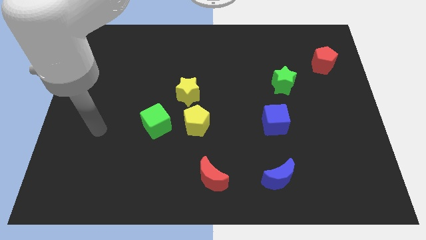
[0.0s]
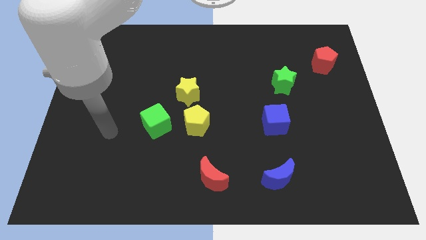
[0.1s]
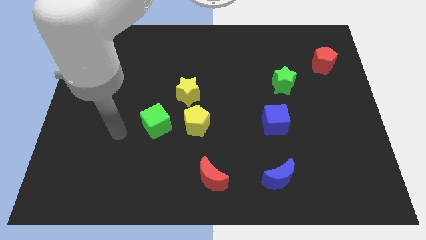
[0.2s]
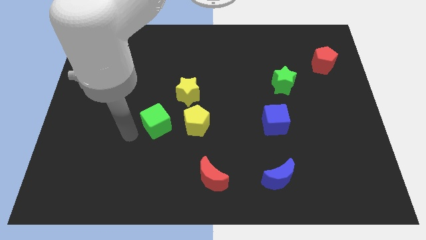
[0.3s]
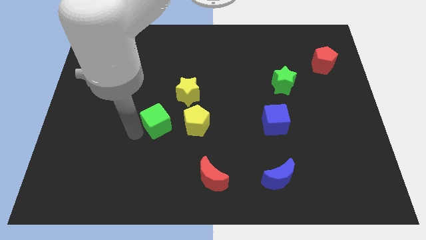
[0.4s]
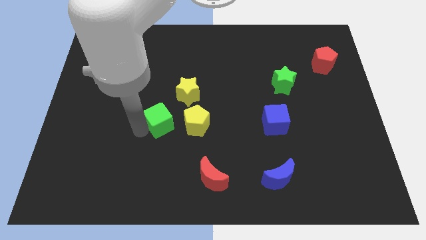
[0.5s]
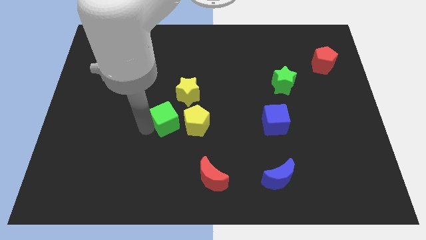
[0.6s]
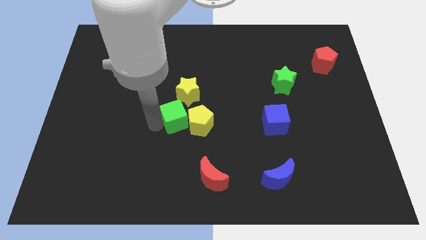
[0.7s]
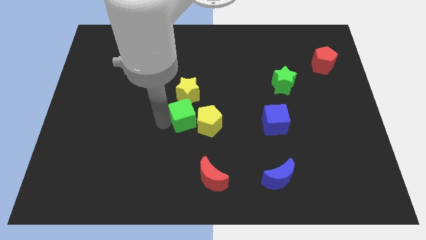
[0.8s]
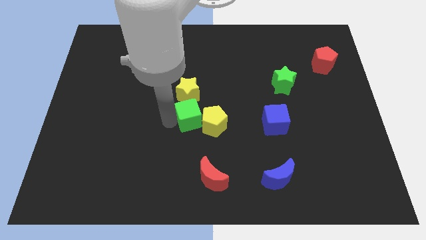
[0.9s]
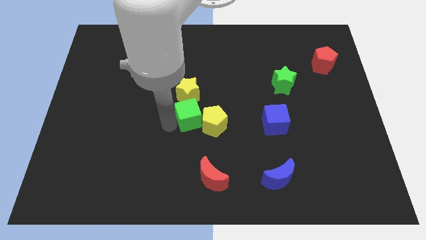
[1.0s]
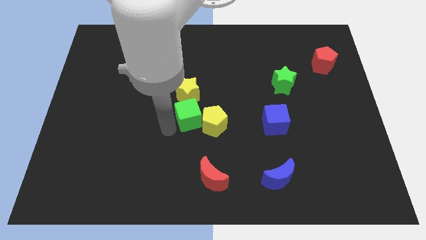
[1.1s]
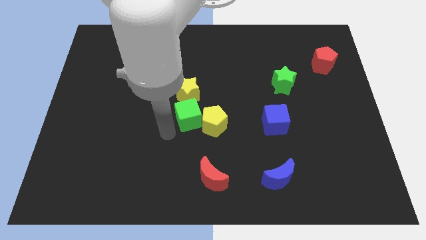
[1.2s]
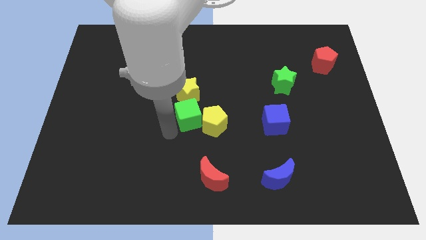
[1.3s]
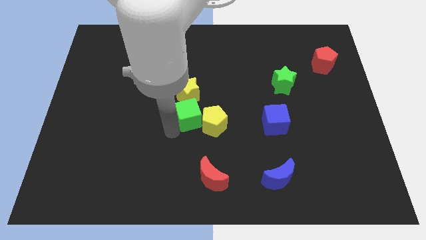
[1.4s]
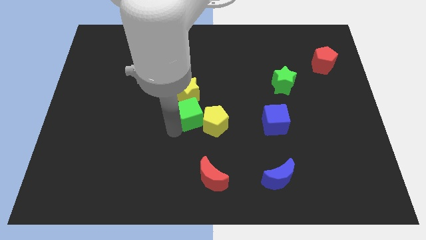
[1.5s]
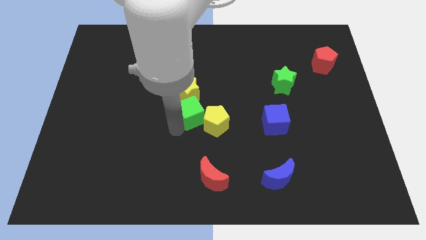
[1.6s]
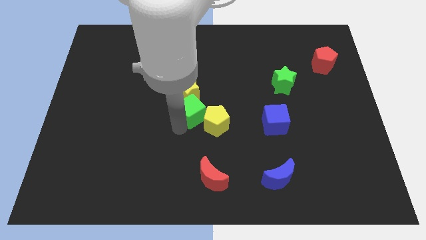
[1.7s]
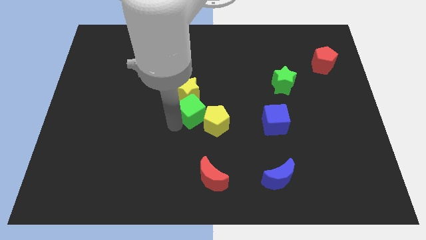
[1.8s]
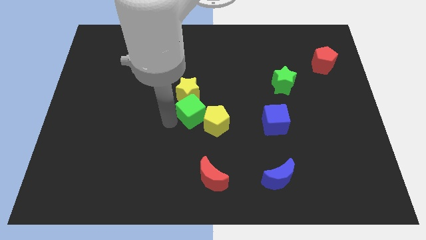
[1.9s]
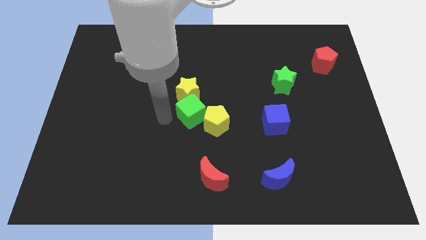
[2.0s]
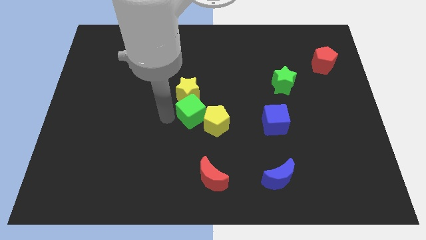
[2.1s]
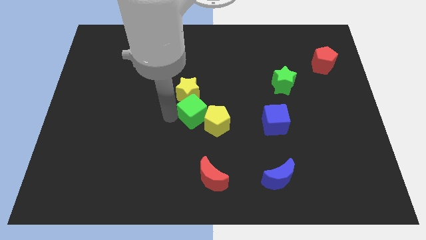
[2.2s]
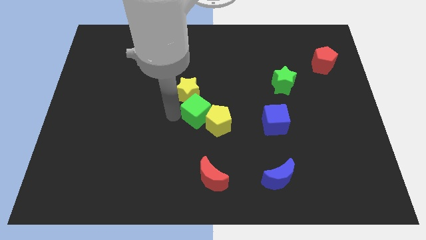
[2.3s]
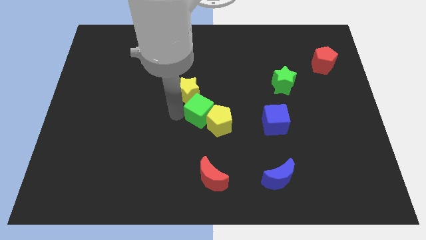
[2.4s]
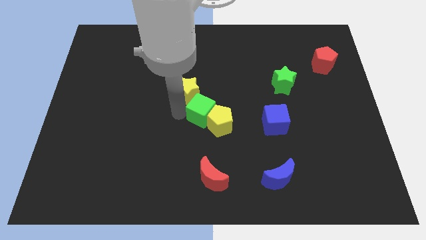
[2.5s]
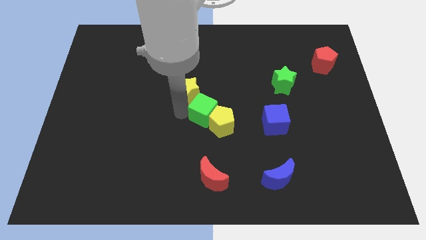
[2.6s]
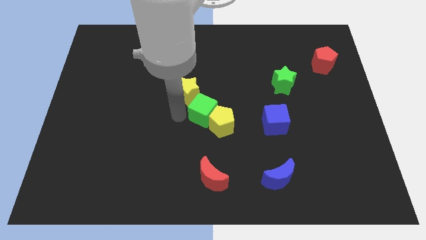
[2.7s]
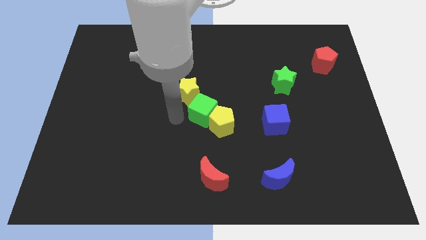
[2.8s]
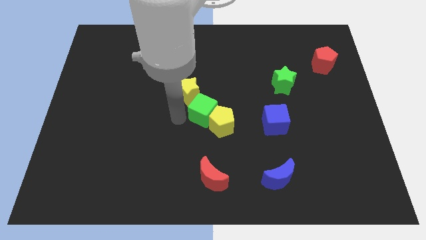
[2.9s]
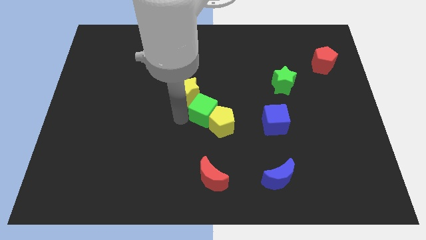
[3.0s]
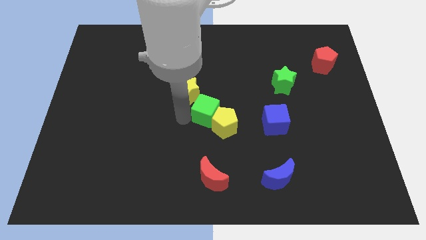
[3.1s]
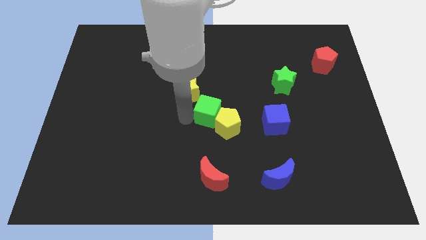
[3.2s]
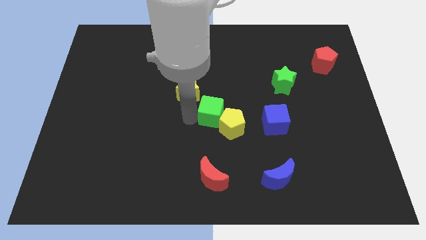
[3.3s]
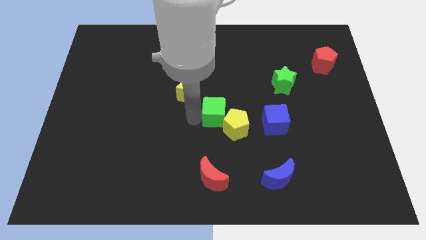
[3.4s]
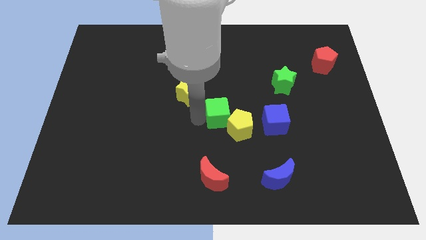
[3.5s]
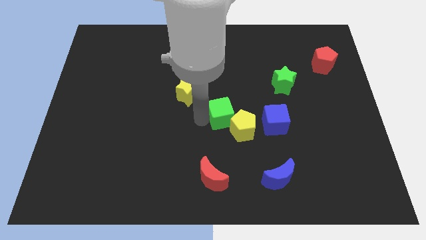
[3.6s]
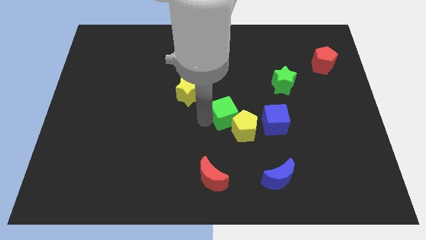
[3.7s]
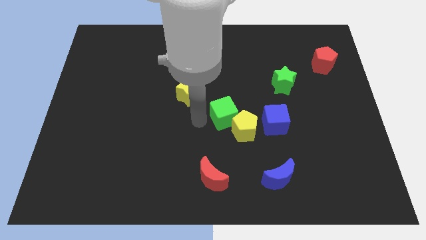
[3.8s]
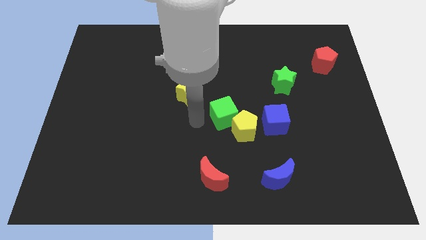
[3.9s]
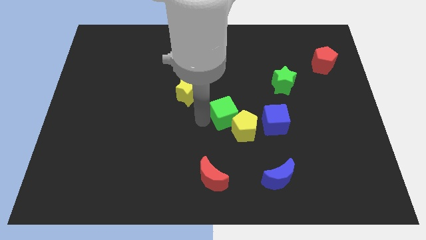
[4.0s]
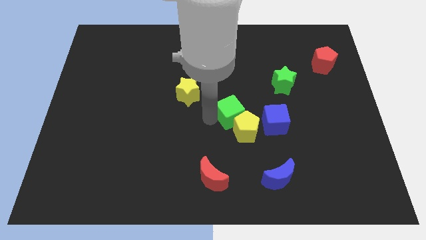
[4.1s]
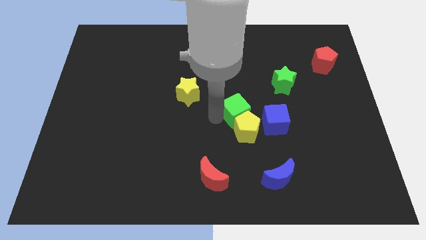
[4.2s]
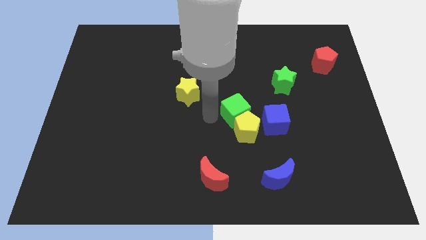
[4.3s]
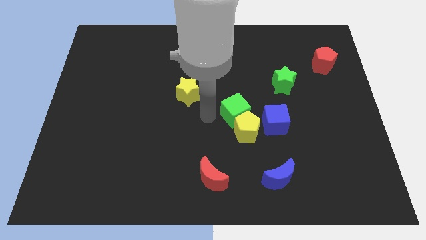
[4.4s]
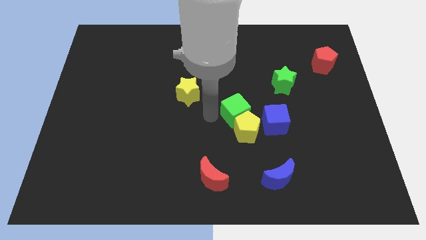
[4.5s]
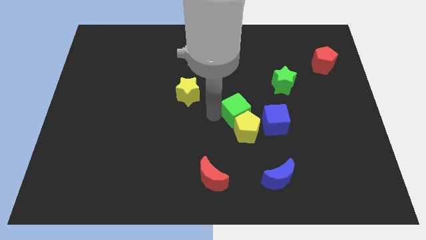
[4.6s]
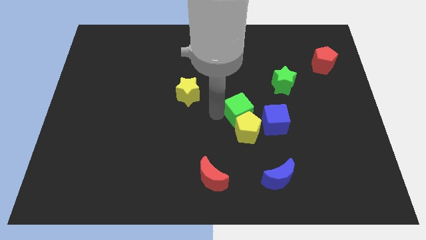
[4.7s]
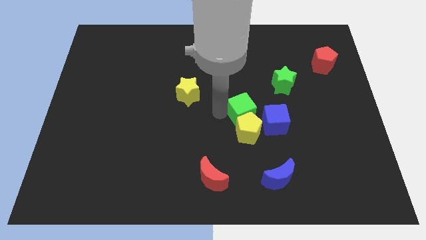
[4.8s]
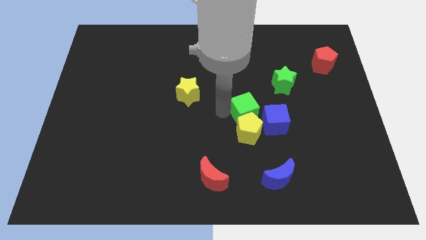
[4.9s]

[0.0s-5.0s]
move the green cube right

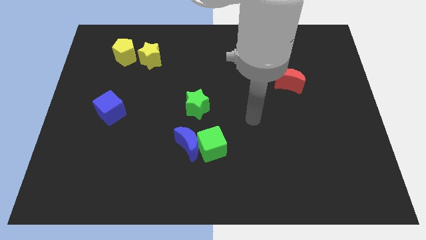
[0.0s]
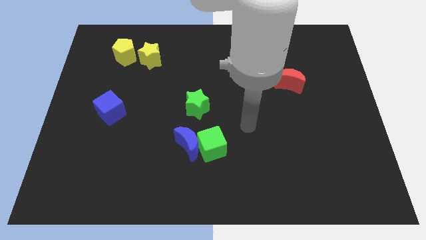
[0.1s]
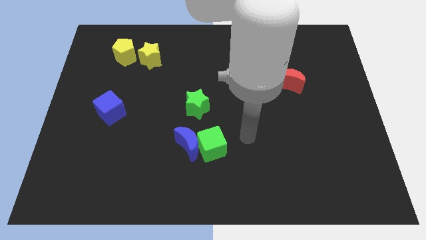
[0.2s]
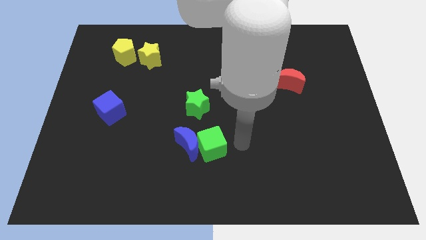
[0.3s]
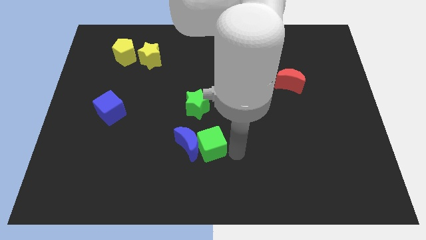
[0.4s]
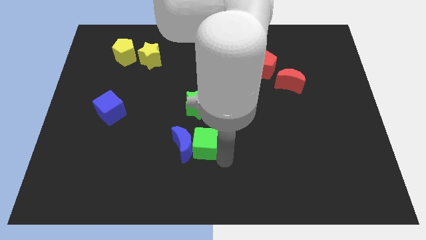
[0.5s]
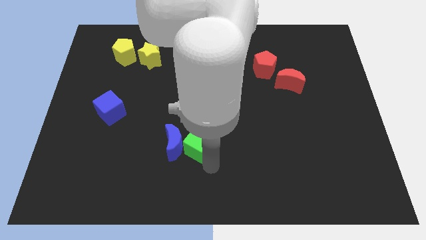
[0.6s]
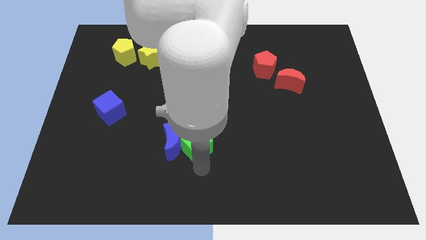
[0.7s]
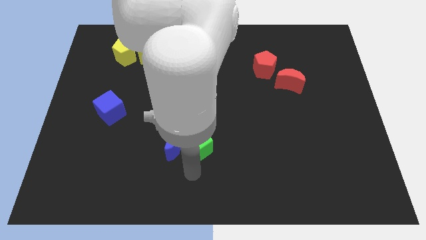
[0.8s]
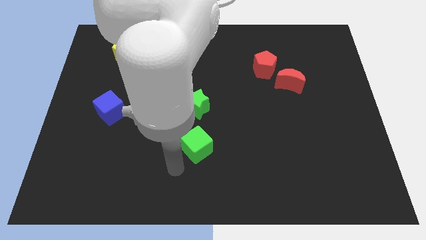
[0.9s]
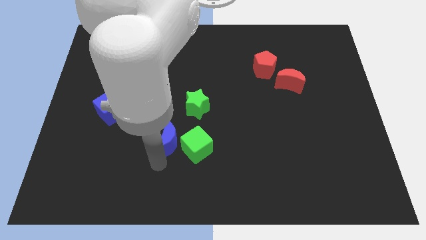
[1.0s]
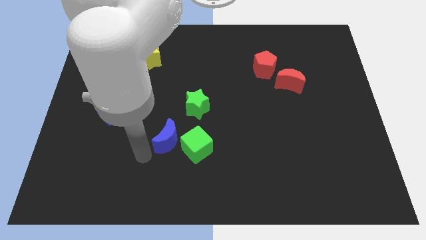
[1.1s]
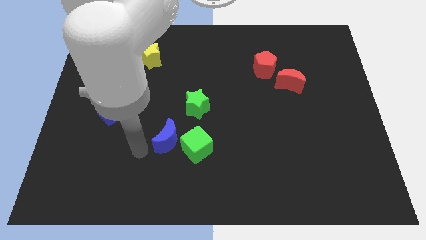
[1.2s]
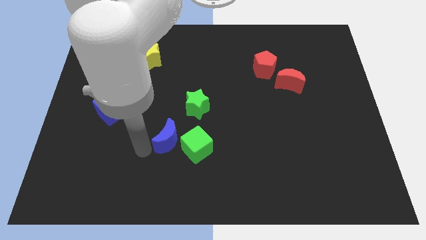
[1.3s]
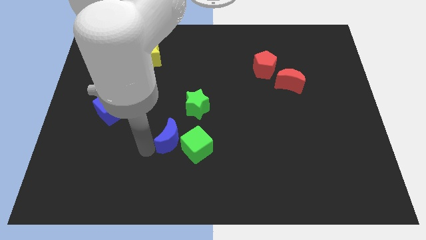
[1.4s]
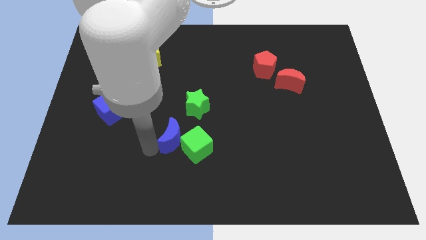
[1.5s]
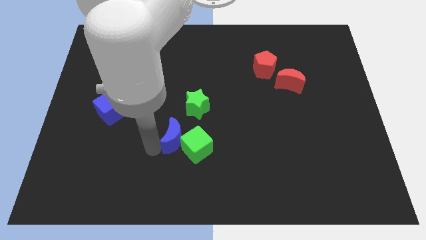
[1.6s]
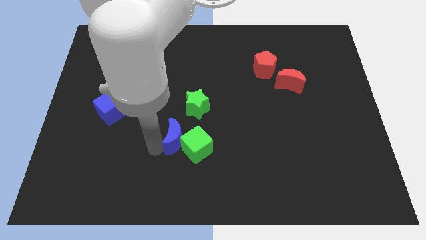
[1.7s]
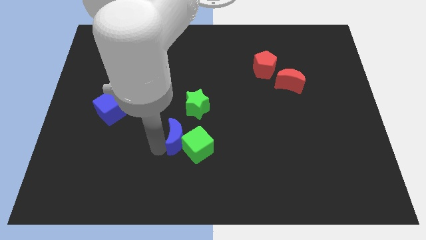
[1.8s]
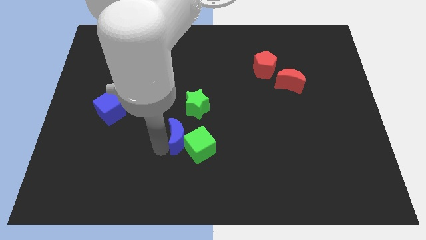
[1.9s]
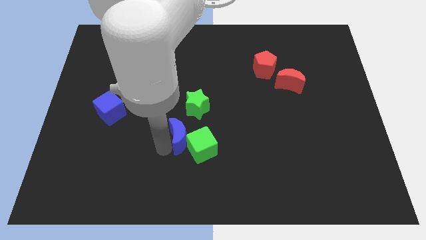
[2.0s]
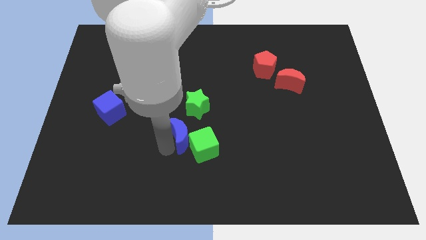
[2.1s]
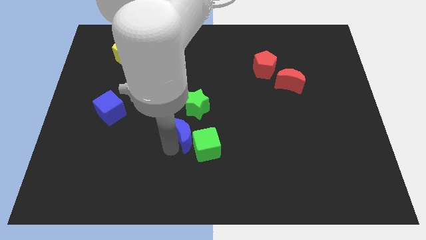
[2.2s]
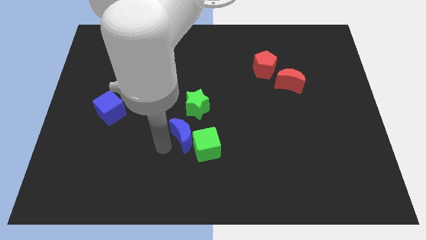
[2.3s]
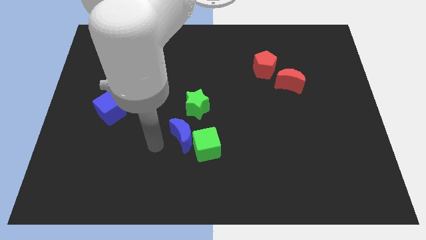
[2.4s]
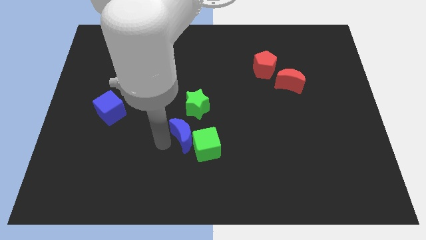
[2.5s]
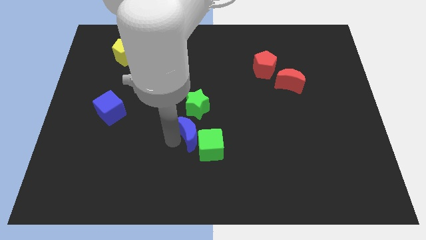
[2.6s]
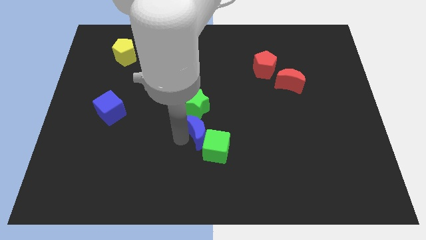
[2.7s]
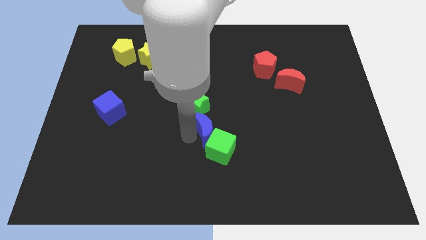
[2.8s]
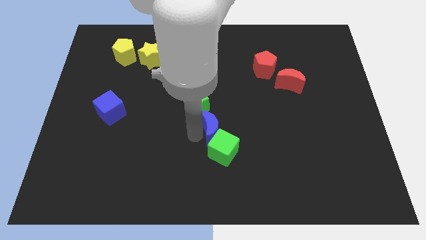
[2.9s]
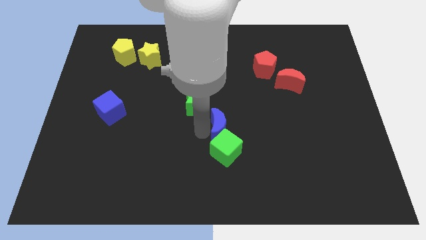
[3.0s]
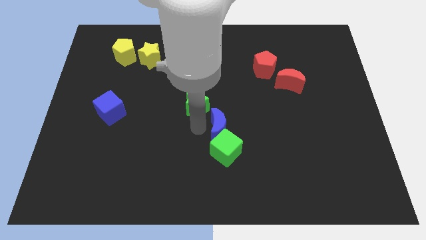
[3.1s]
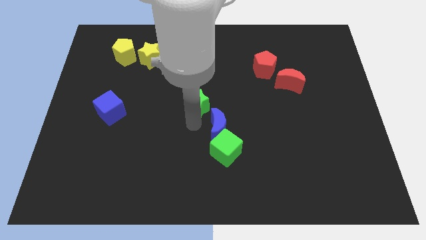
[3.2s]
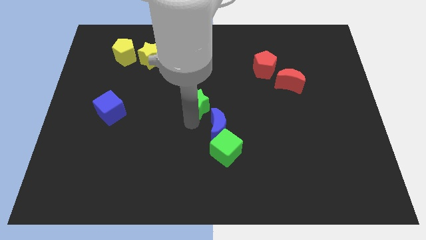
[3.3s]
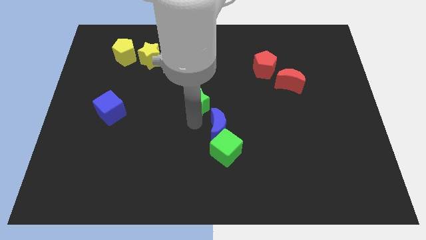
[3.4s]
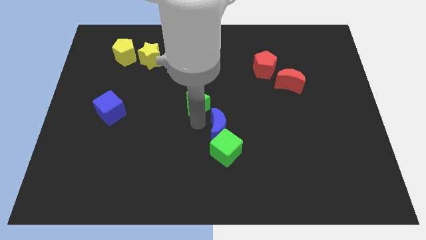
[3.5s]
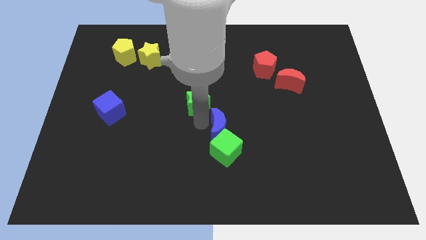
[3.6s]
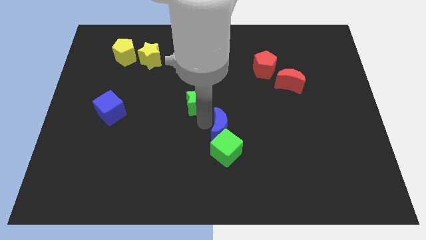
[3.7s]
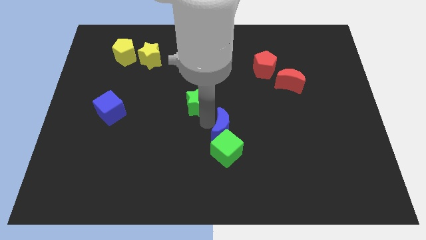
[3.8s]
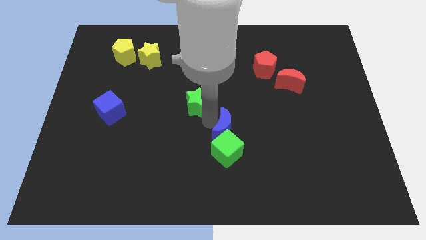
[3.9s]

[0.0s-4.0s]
slightly slide the blue moon to the right
